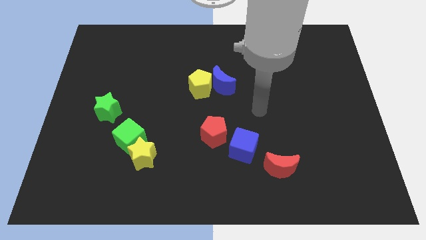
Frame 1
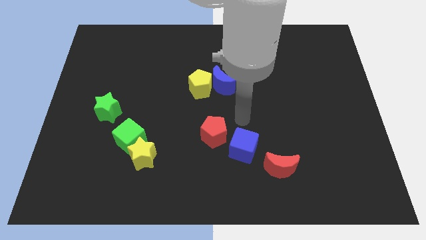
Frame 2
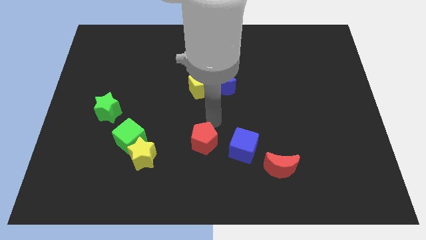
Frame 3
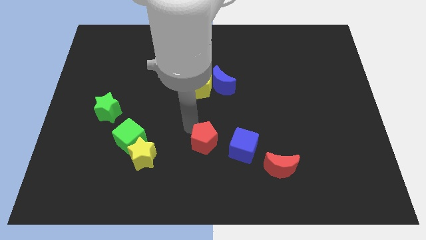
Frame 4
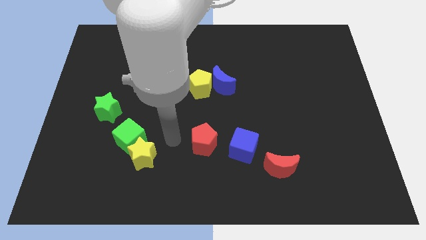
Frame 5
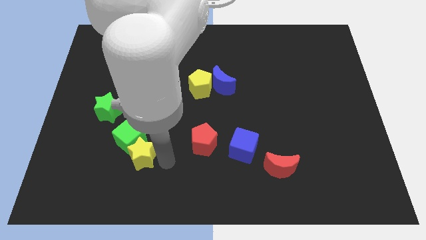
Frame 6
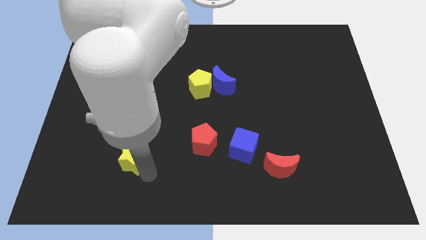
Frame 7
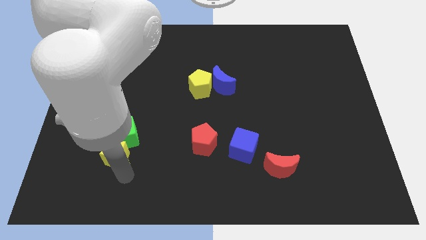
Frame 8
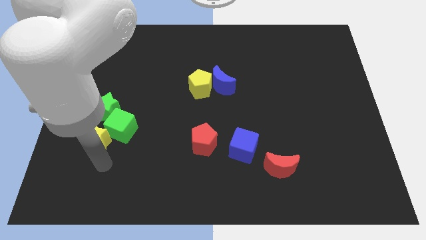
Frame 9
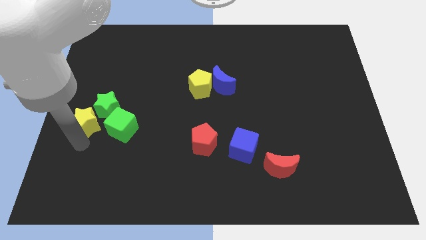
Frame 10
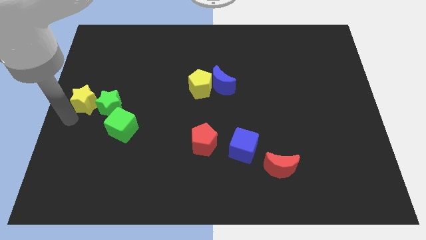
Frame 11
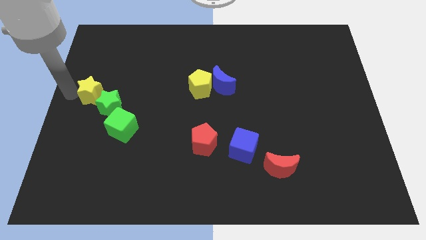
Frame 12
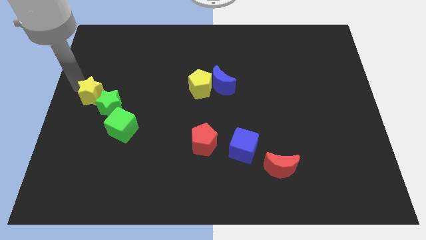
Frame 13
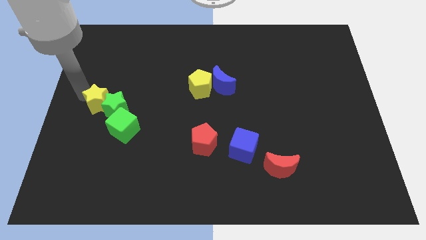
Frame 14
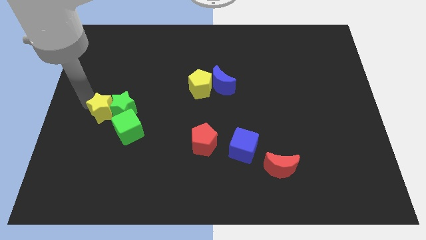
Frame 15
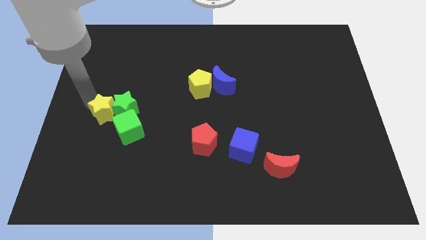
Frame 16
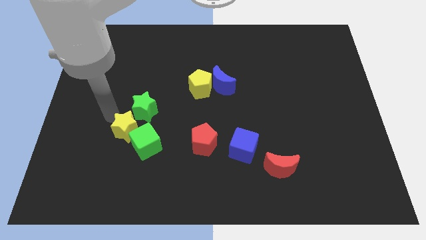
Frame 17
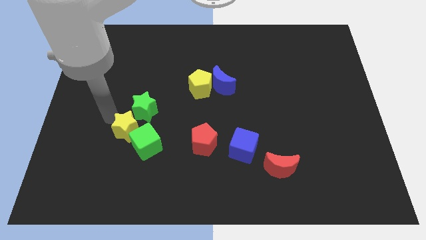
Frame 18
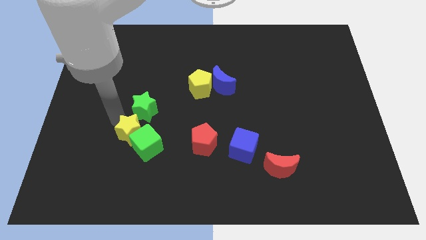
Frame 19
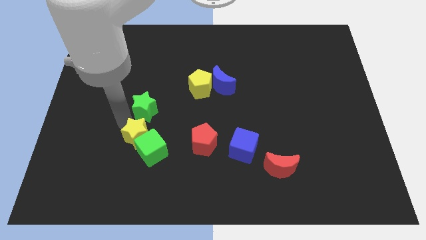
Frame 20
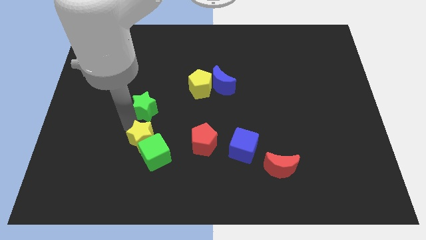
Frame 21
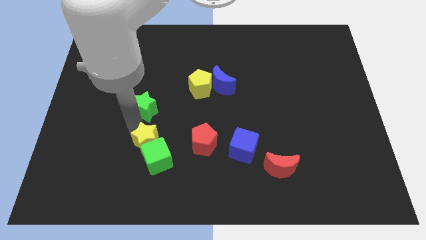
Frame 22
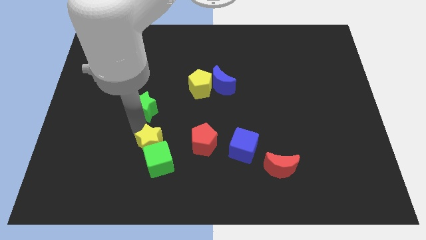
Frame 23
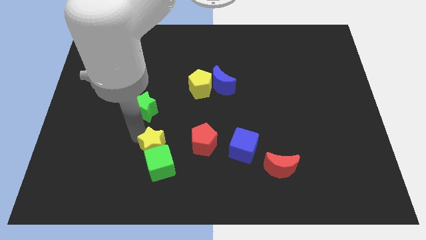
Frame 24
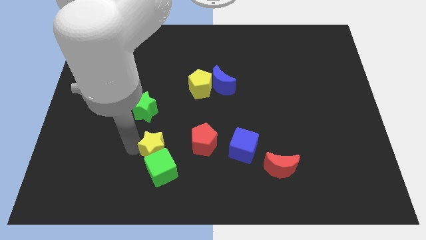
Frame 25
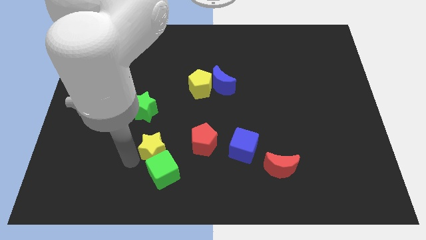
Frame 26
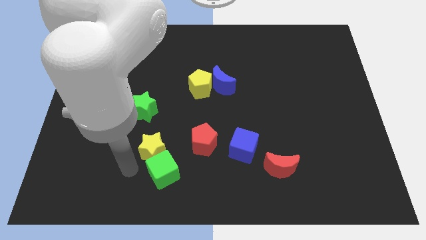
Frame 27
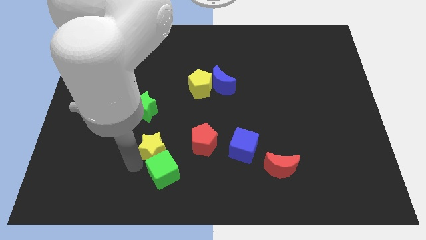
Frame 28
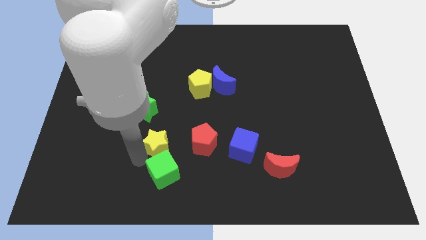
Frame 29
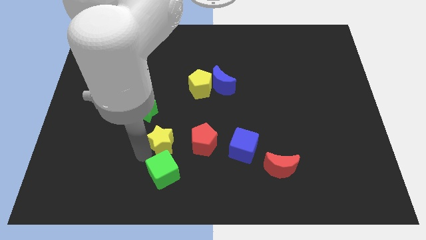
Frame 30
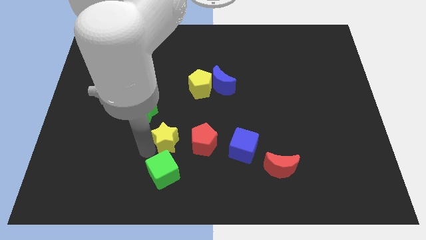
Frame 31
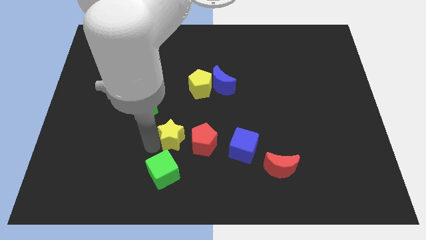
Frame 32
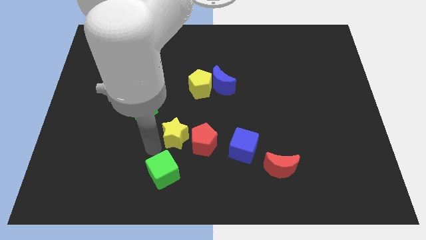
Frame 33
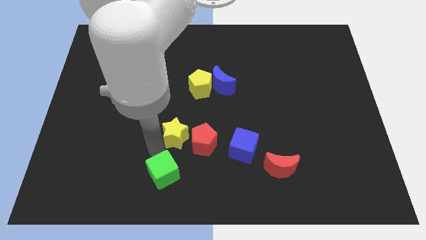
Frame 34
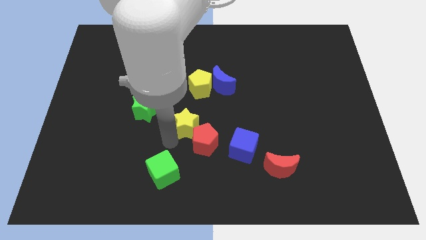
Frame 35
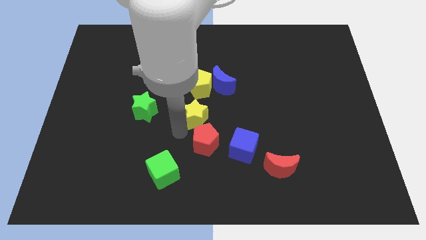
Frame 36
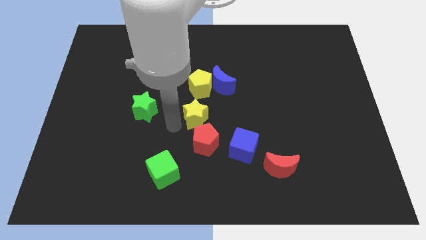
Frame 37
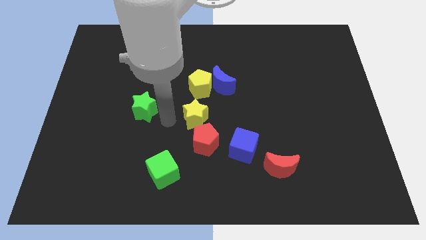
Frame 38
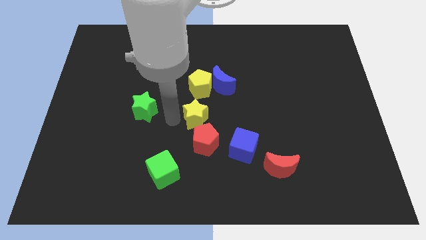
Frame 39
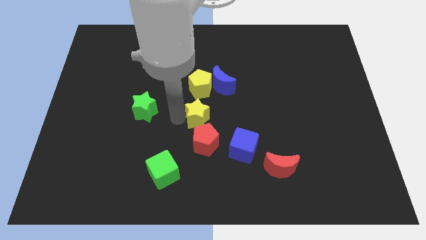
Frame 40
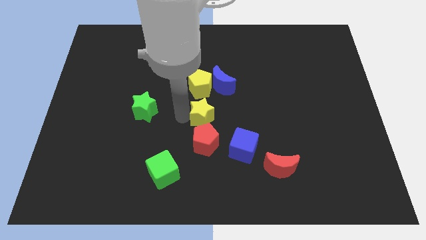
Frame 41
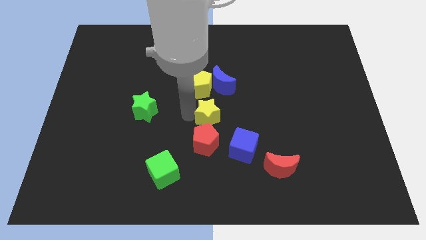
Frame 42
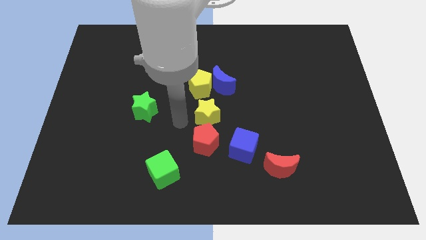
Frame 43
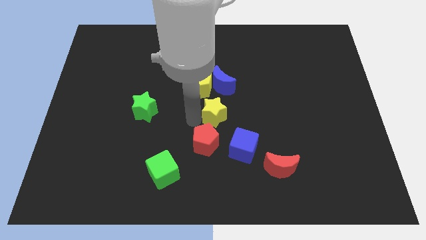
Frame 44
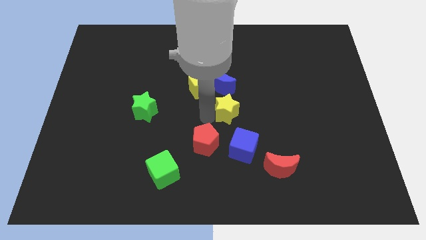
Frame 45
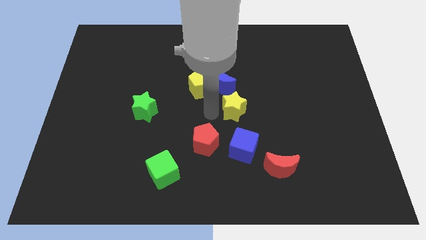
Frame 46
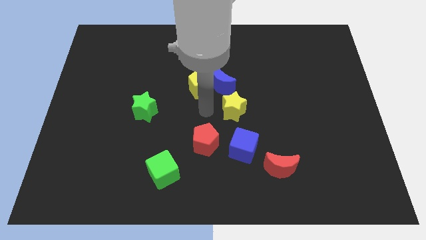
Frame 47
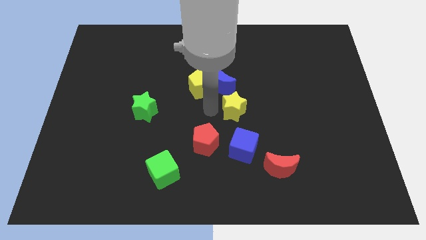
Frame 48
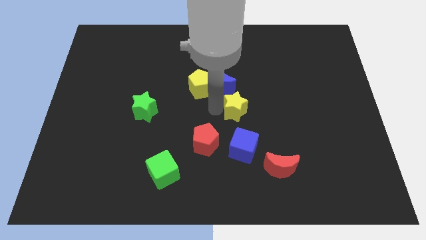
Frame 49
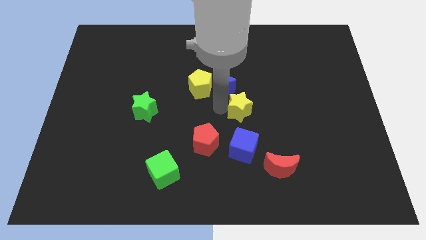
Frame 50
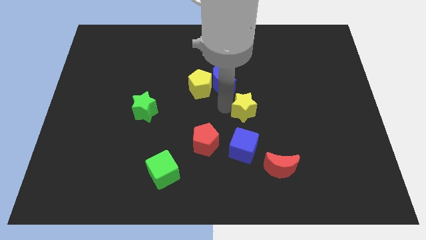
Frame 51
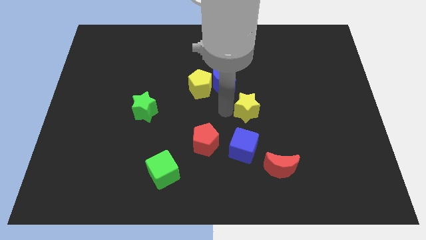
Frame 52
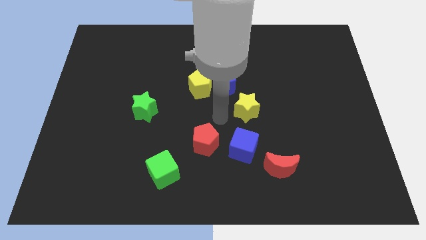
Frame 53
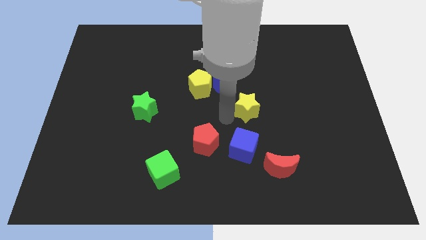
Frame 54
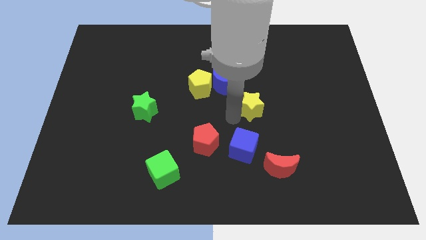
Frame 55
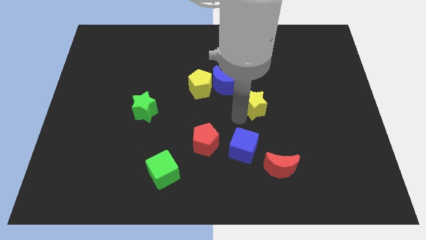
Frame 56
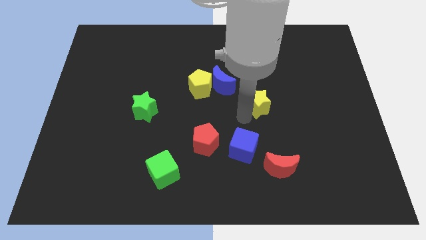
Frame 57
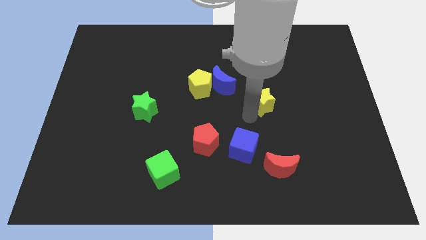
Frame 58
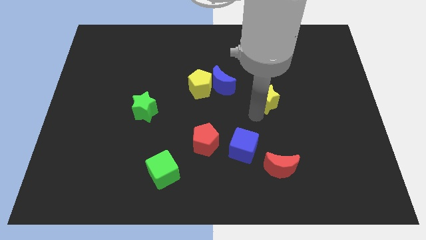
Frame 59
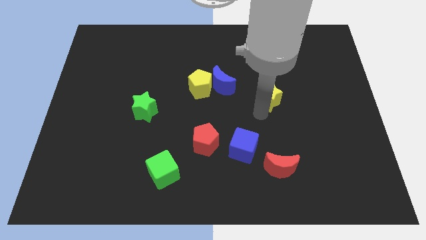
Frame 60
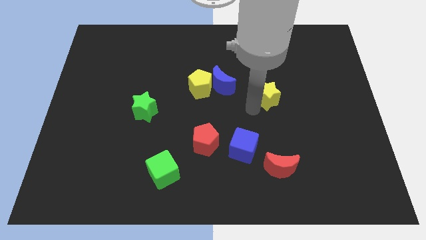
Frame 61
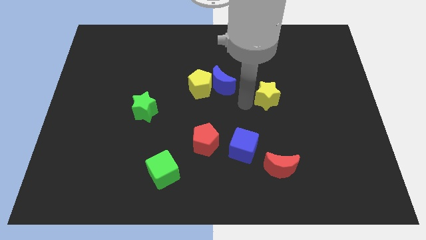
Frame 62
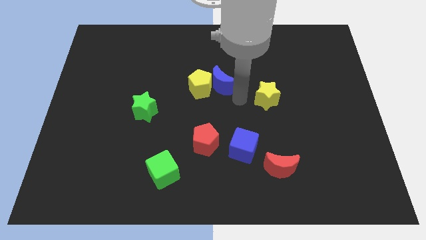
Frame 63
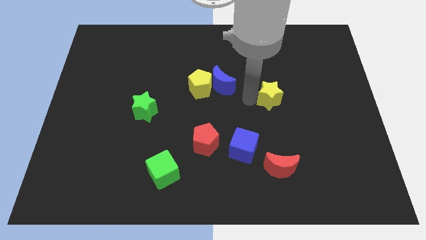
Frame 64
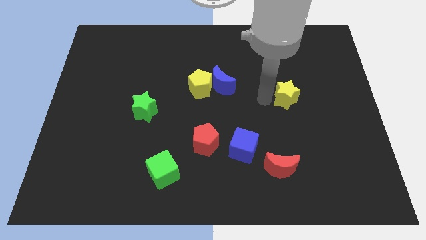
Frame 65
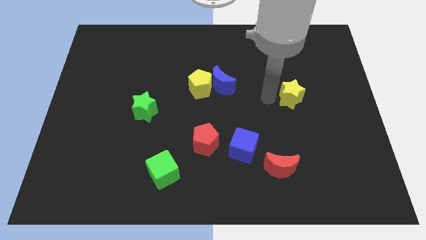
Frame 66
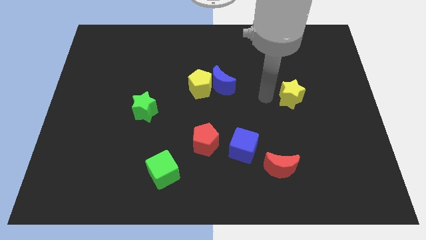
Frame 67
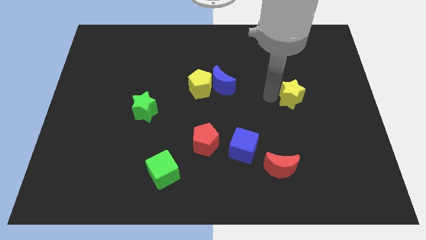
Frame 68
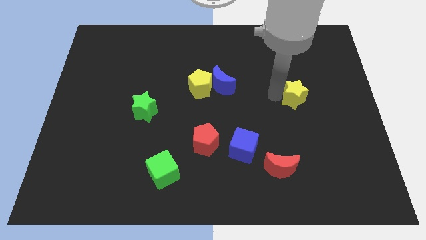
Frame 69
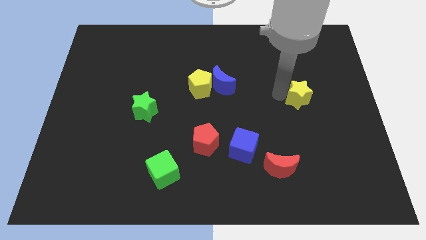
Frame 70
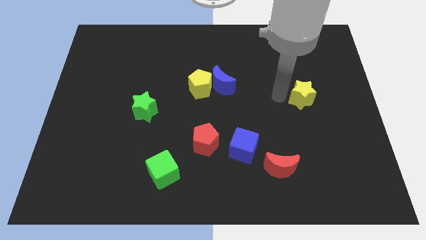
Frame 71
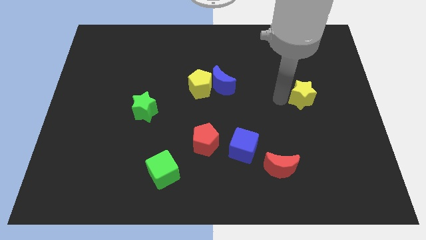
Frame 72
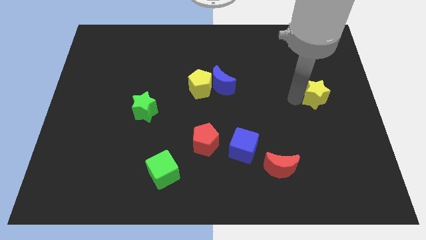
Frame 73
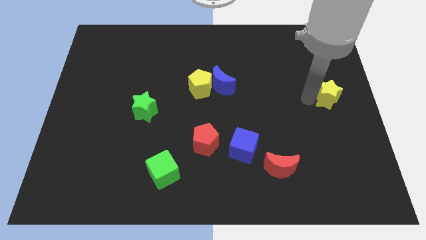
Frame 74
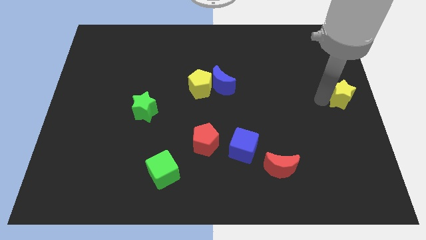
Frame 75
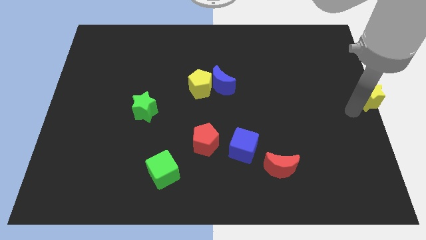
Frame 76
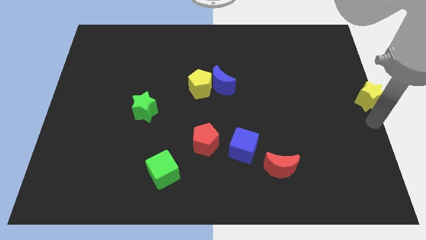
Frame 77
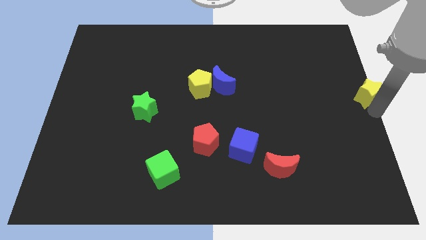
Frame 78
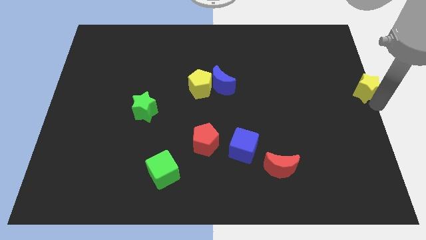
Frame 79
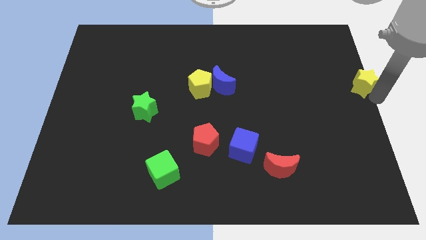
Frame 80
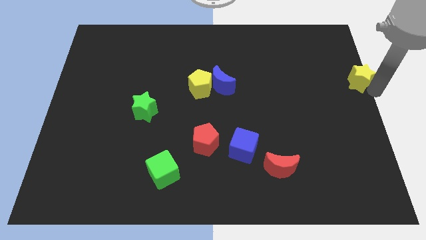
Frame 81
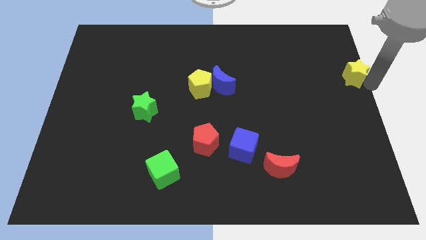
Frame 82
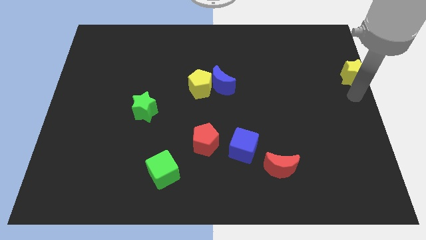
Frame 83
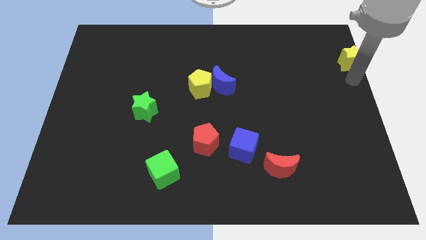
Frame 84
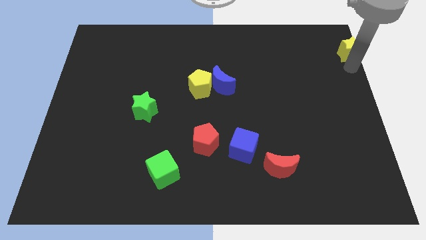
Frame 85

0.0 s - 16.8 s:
put the yellow star to the top right corner
